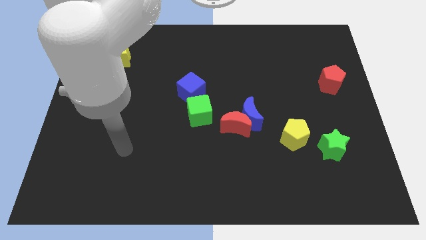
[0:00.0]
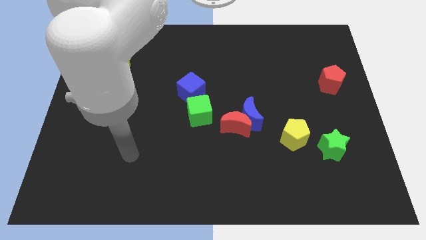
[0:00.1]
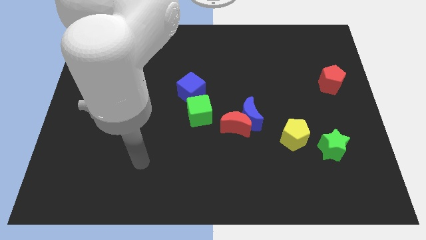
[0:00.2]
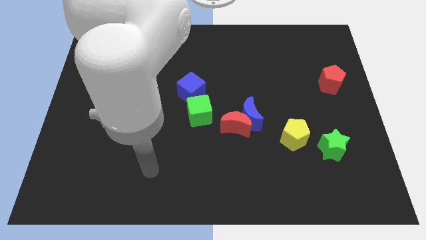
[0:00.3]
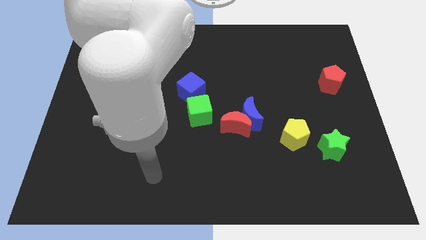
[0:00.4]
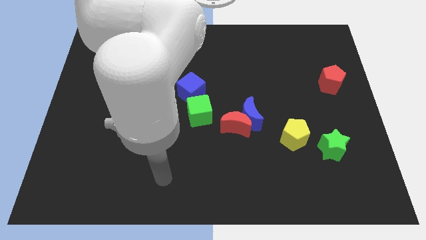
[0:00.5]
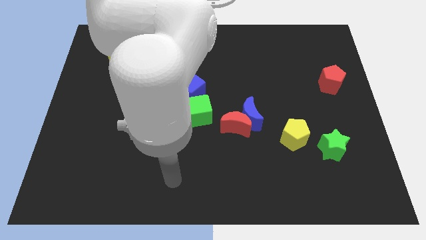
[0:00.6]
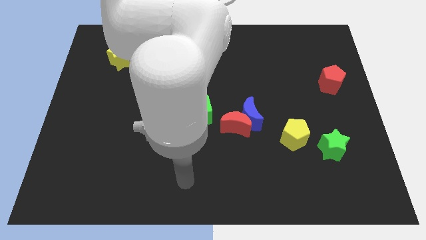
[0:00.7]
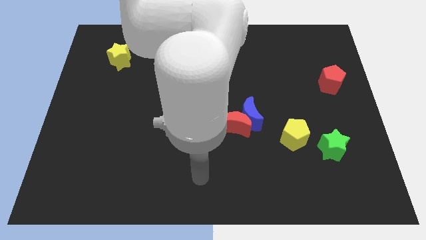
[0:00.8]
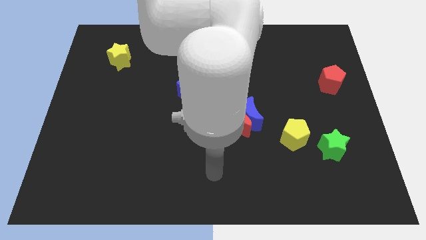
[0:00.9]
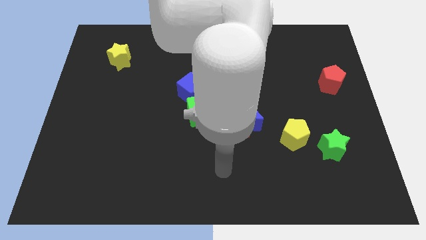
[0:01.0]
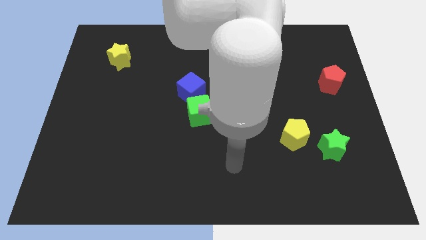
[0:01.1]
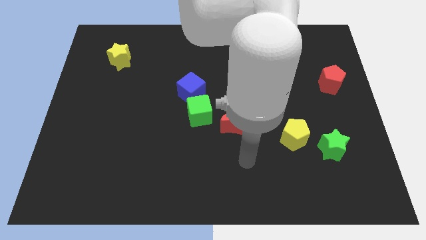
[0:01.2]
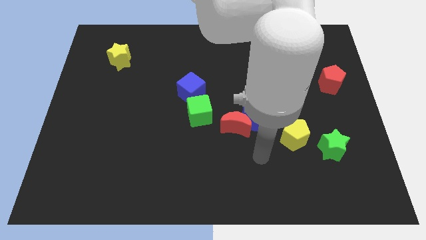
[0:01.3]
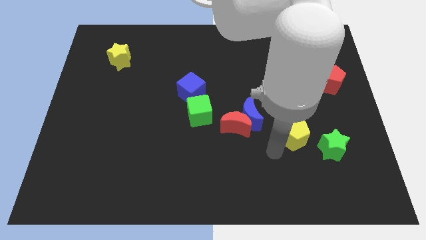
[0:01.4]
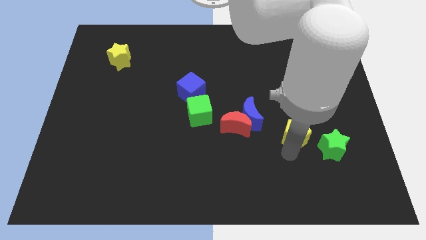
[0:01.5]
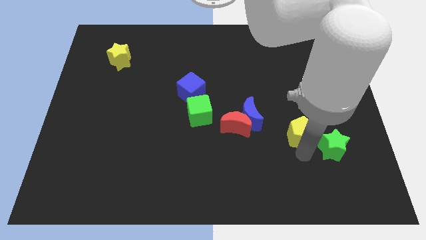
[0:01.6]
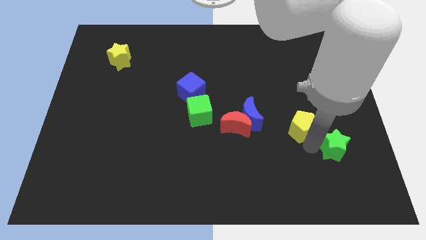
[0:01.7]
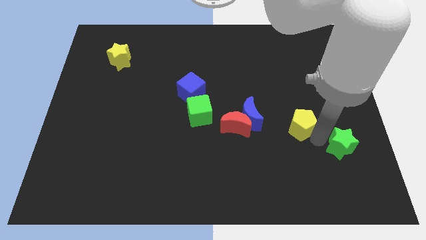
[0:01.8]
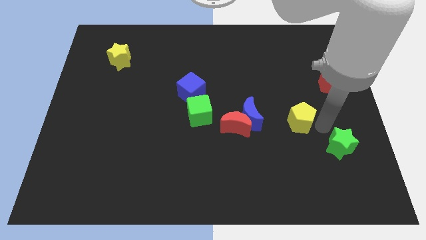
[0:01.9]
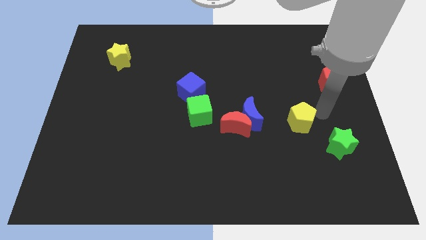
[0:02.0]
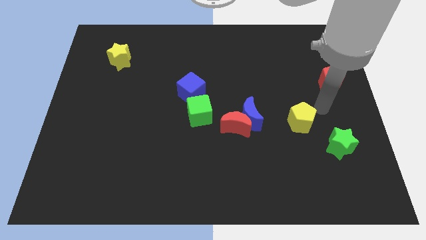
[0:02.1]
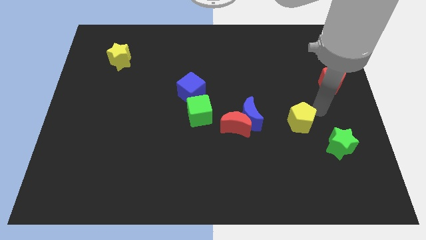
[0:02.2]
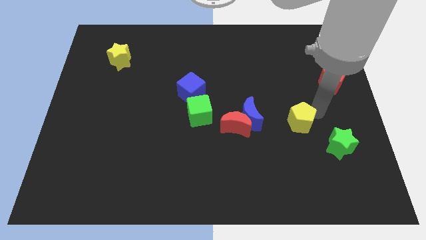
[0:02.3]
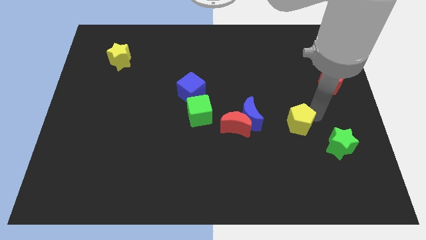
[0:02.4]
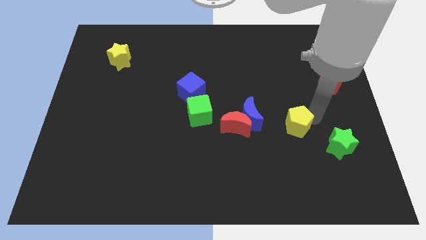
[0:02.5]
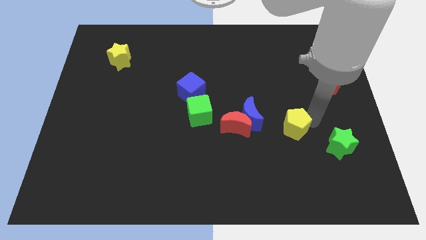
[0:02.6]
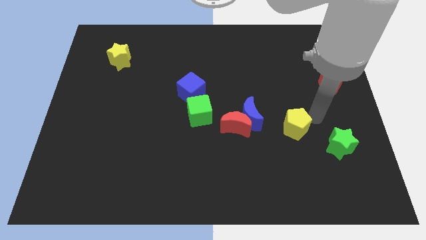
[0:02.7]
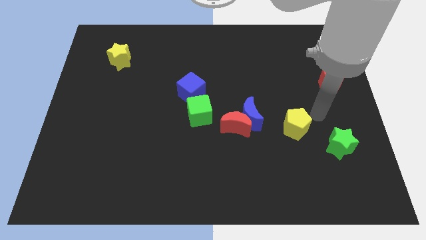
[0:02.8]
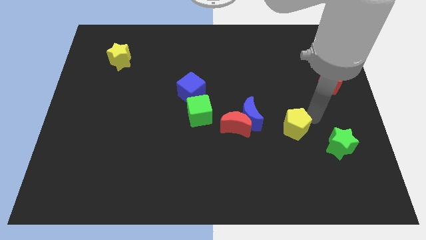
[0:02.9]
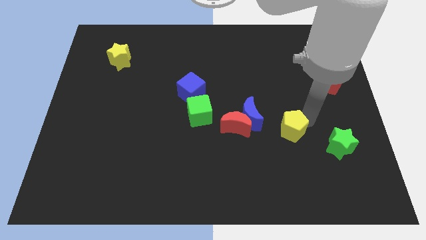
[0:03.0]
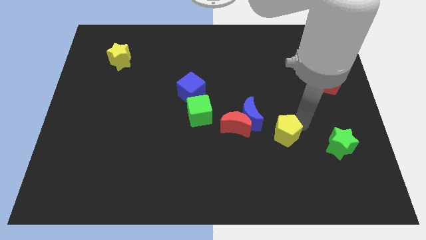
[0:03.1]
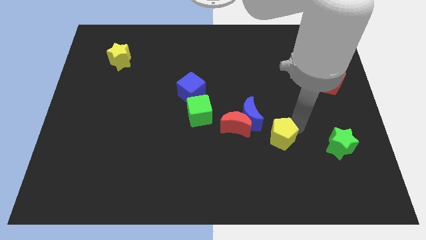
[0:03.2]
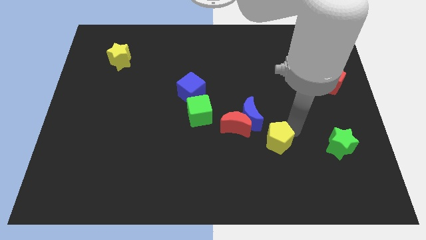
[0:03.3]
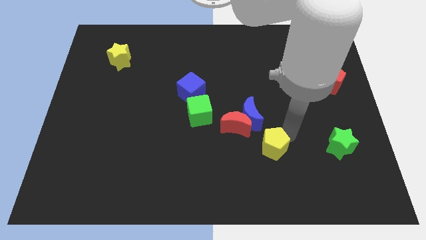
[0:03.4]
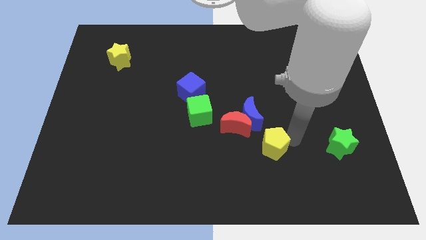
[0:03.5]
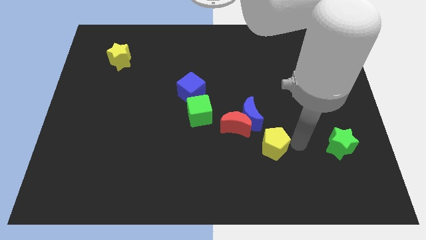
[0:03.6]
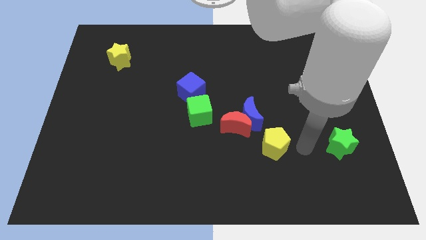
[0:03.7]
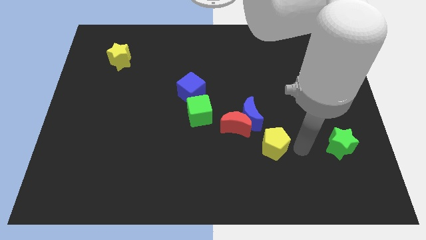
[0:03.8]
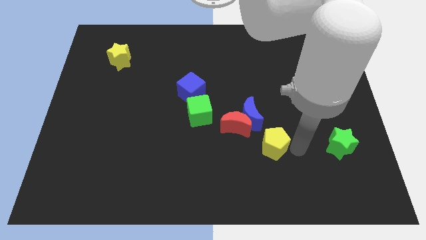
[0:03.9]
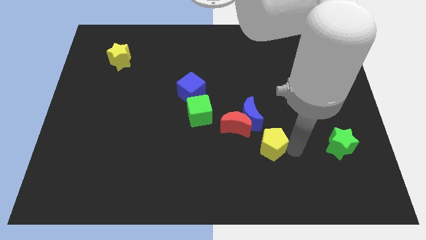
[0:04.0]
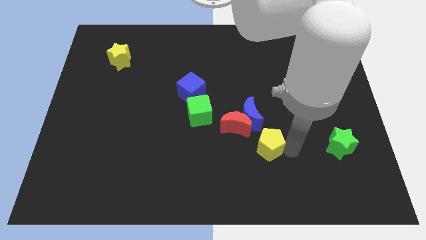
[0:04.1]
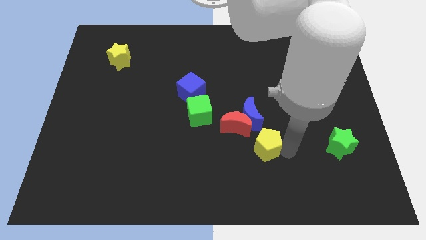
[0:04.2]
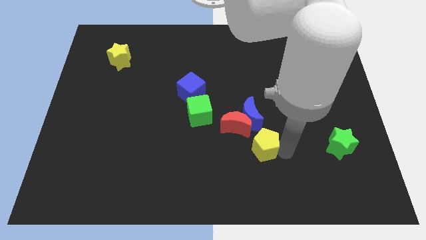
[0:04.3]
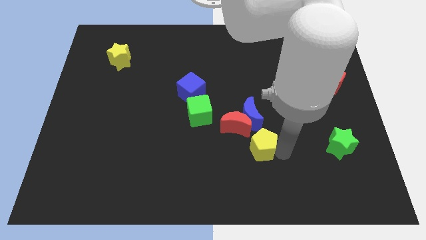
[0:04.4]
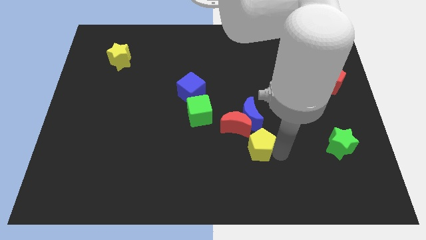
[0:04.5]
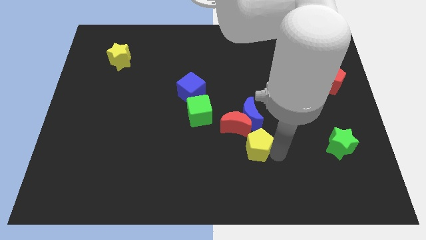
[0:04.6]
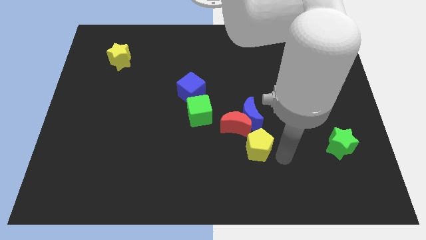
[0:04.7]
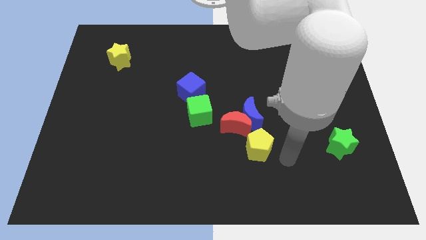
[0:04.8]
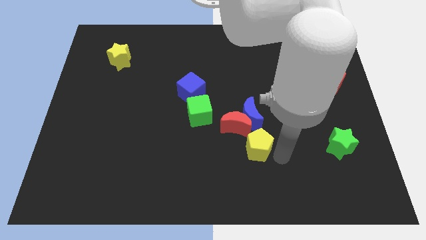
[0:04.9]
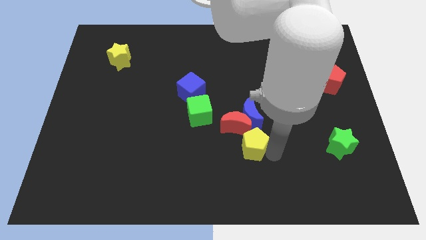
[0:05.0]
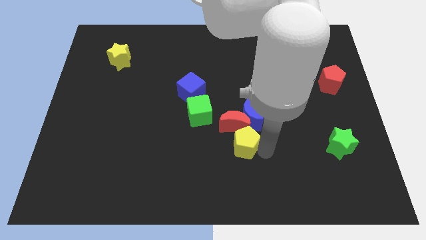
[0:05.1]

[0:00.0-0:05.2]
slide the yellow pentagon to the bottom left of the blue moon

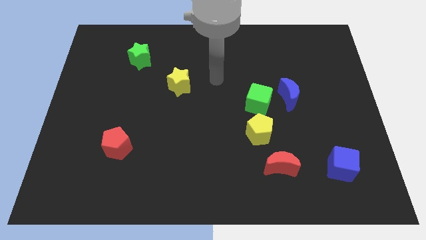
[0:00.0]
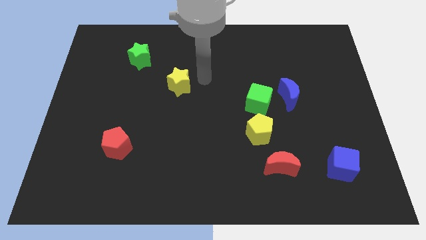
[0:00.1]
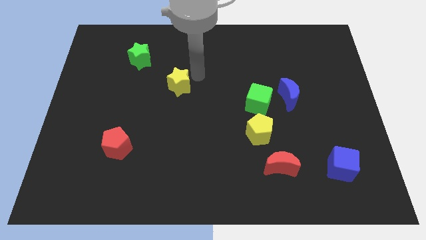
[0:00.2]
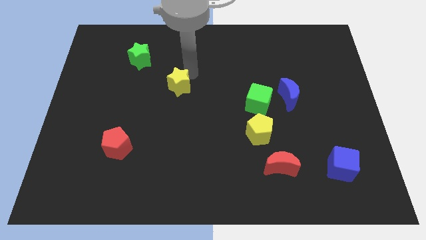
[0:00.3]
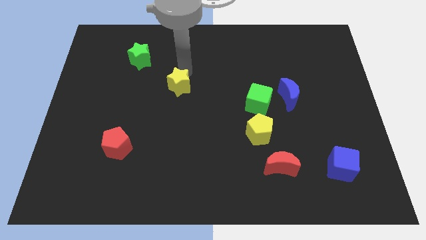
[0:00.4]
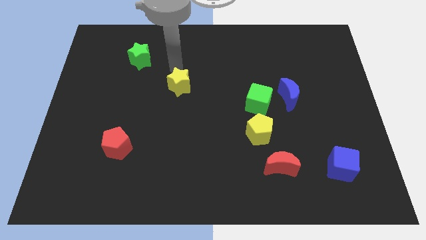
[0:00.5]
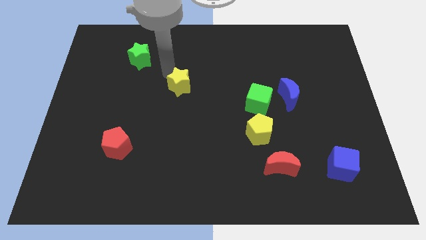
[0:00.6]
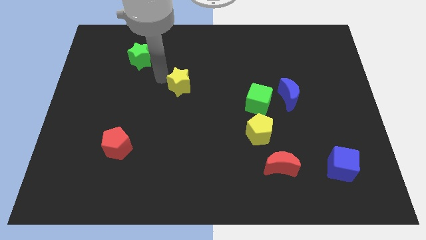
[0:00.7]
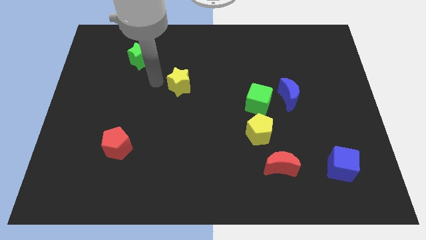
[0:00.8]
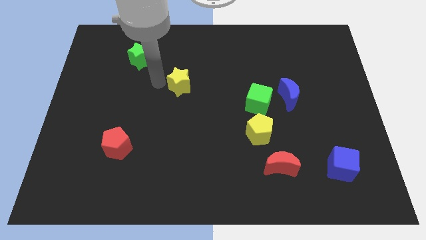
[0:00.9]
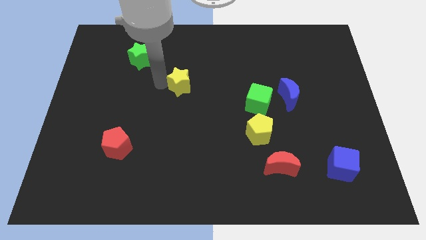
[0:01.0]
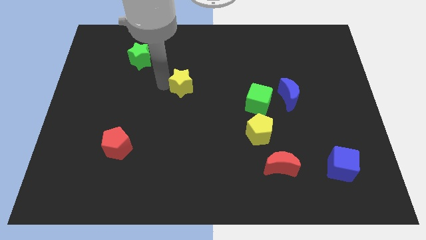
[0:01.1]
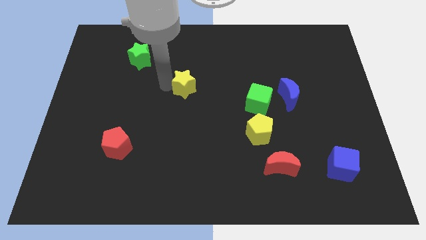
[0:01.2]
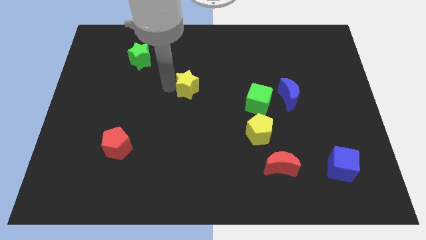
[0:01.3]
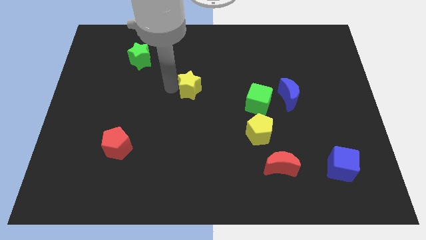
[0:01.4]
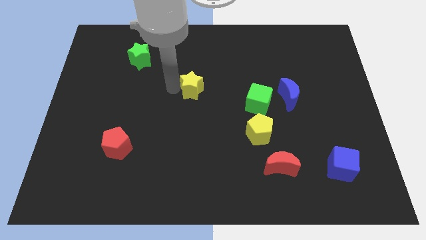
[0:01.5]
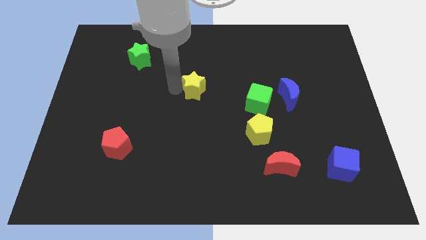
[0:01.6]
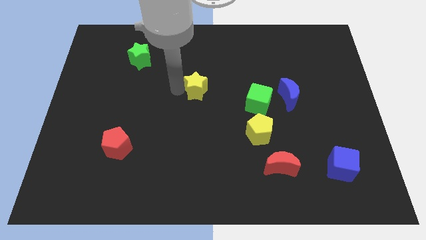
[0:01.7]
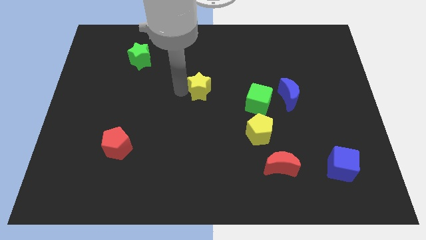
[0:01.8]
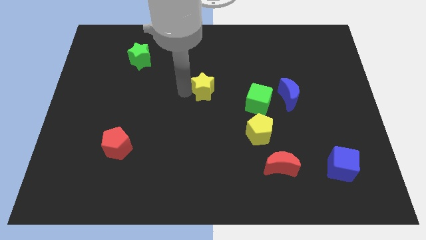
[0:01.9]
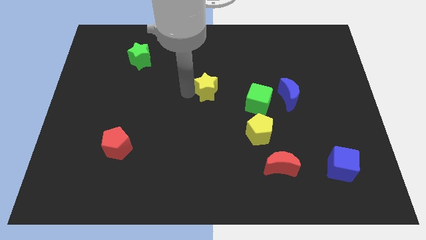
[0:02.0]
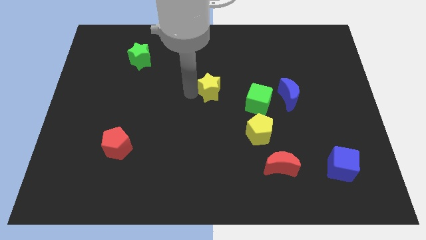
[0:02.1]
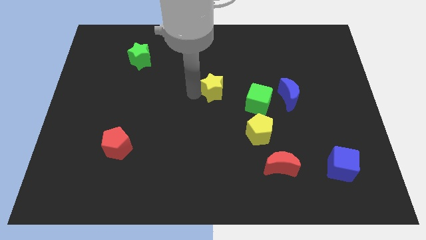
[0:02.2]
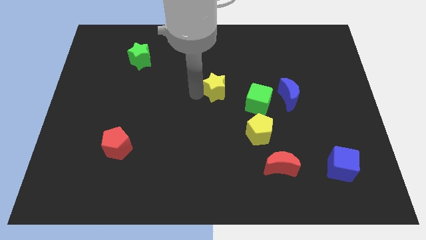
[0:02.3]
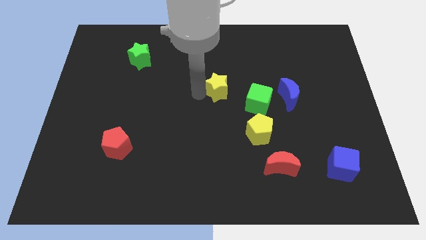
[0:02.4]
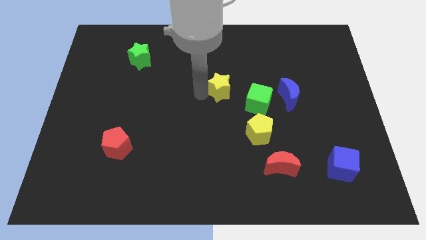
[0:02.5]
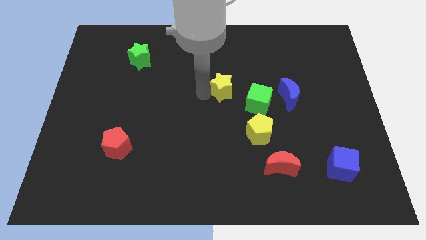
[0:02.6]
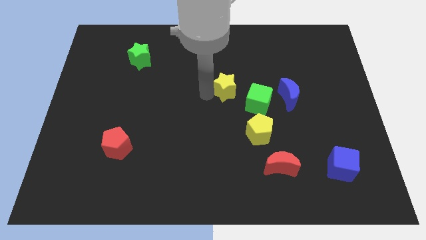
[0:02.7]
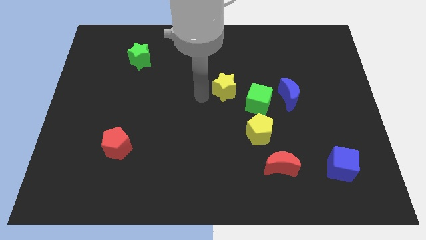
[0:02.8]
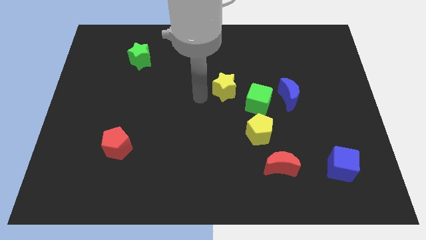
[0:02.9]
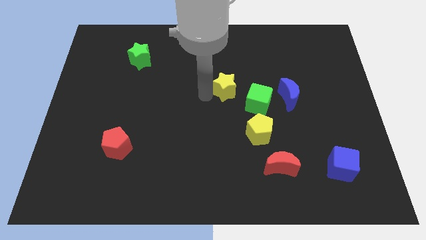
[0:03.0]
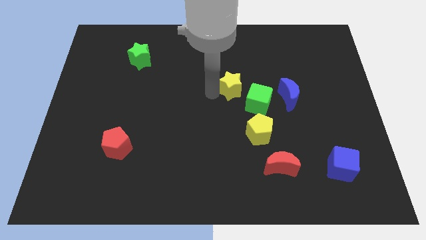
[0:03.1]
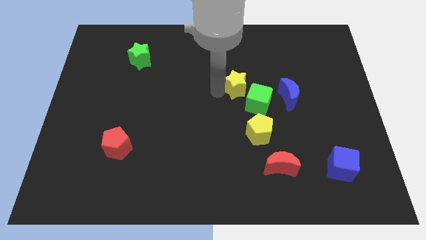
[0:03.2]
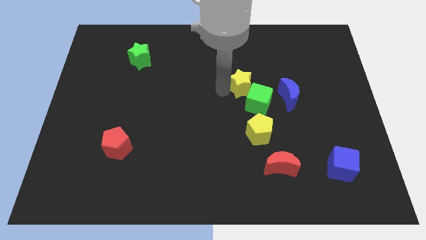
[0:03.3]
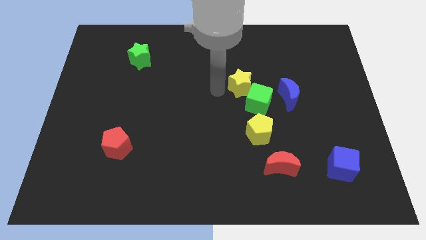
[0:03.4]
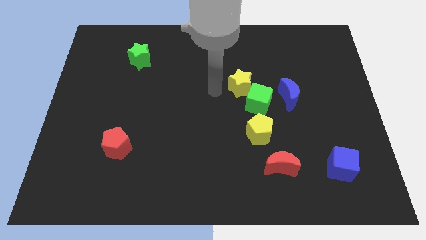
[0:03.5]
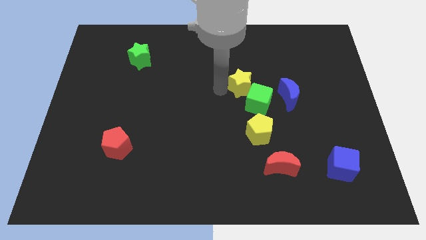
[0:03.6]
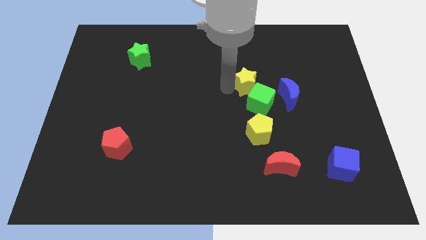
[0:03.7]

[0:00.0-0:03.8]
put the yellow star to the top left side of the blue moon
